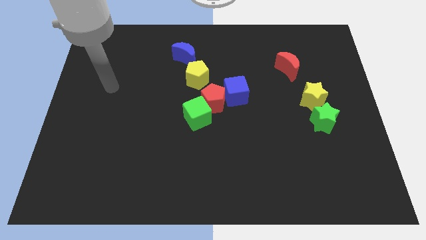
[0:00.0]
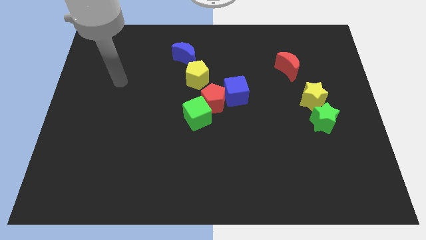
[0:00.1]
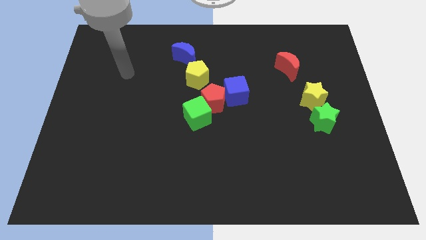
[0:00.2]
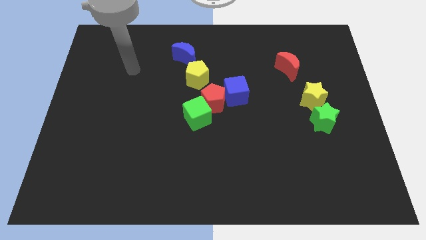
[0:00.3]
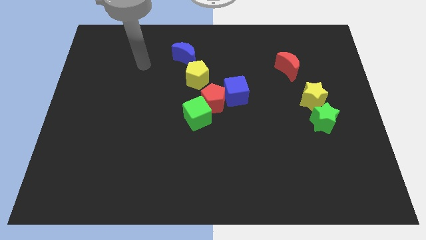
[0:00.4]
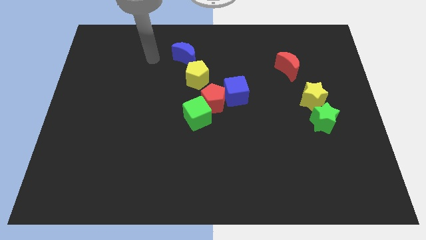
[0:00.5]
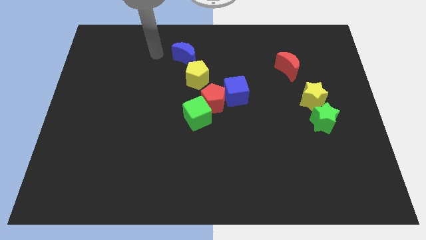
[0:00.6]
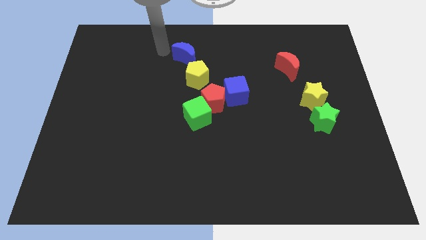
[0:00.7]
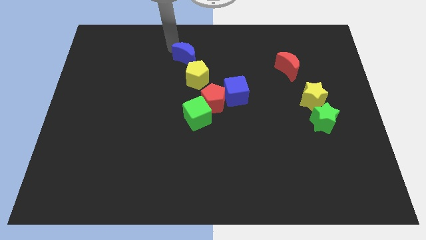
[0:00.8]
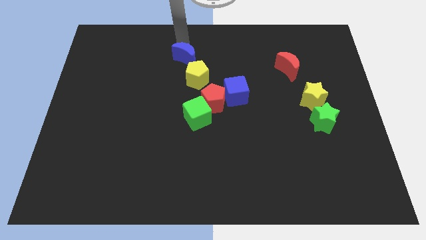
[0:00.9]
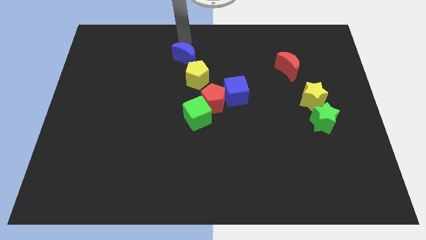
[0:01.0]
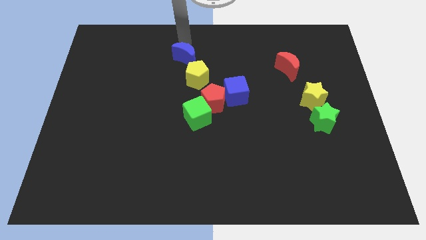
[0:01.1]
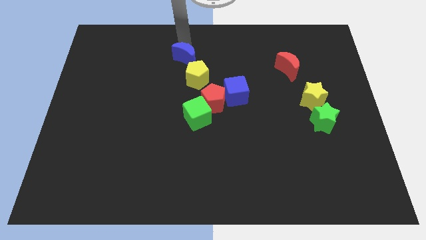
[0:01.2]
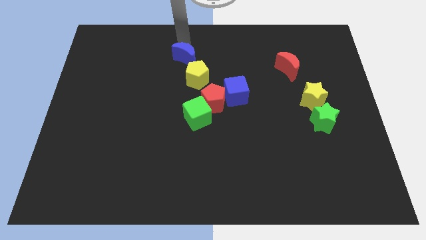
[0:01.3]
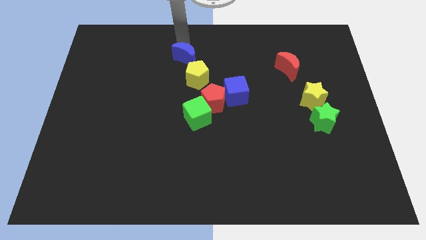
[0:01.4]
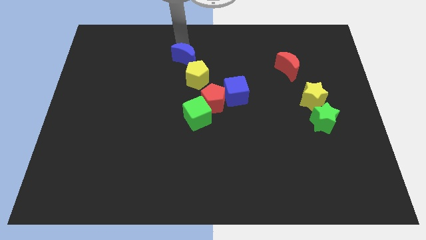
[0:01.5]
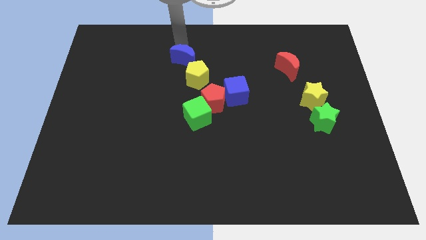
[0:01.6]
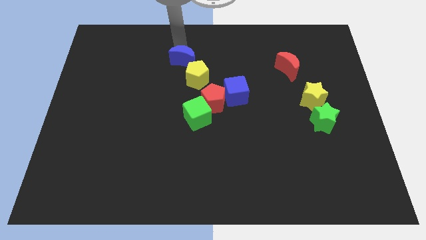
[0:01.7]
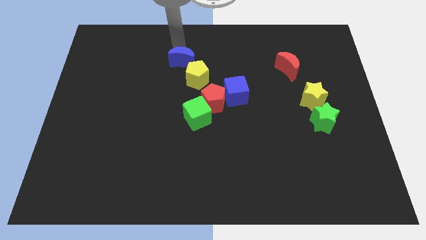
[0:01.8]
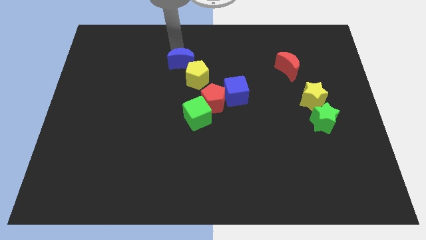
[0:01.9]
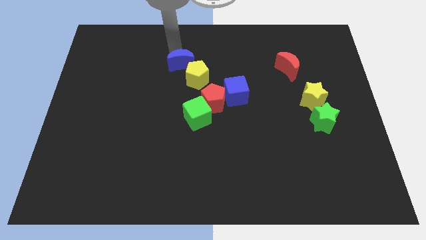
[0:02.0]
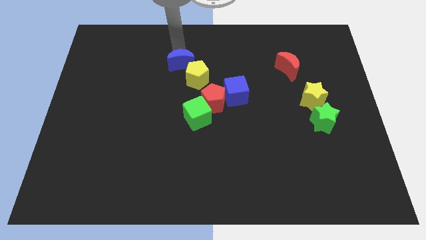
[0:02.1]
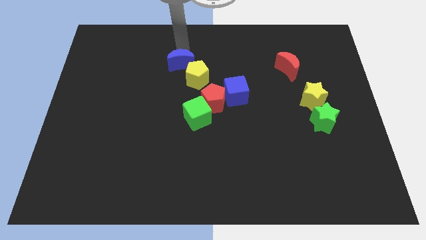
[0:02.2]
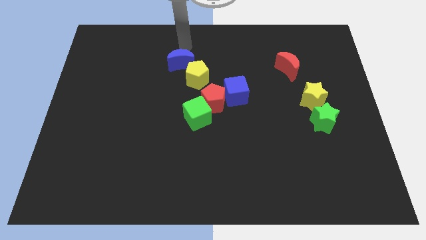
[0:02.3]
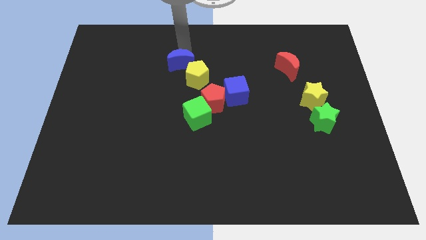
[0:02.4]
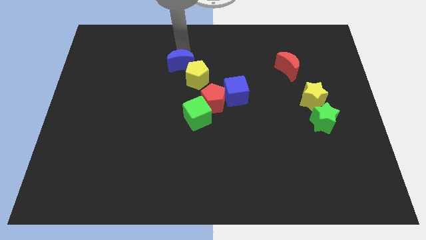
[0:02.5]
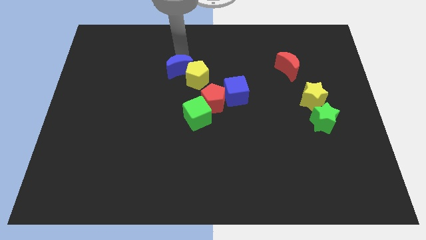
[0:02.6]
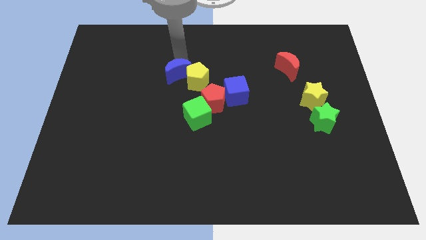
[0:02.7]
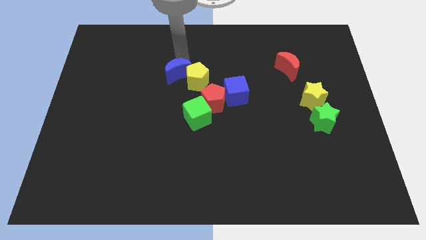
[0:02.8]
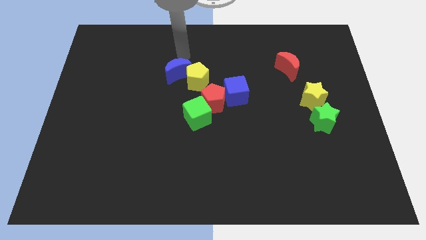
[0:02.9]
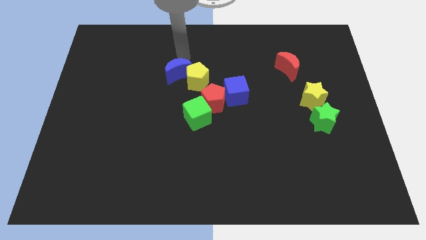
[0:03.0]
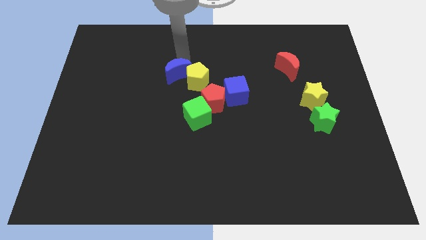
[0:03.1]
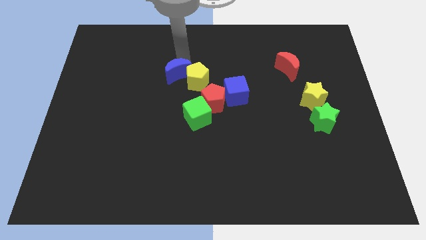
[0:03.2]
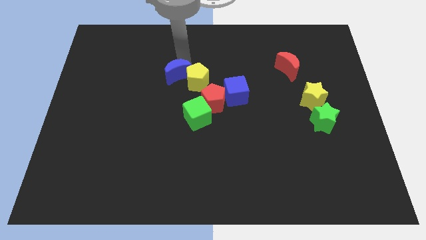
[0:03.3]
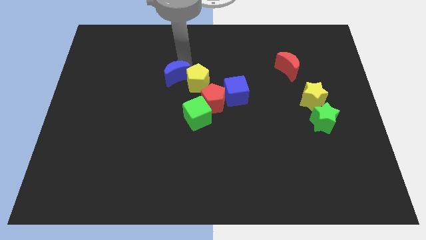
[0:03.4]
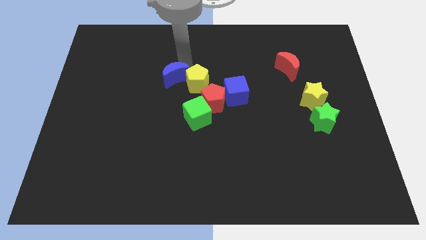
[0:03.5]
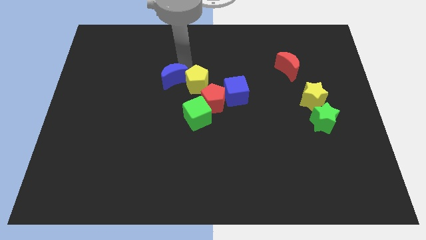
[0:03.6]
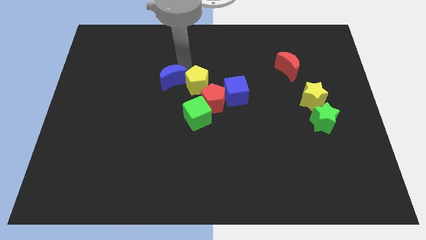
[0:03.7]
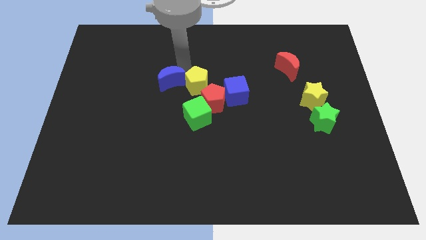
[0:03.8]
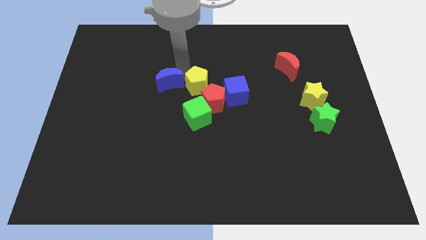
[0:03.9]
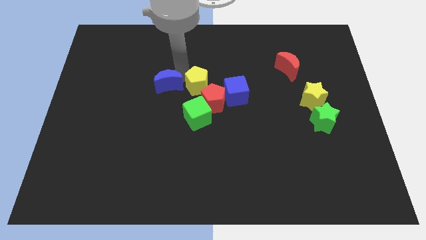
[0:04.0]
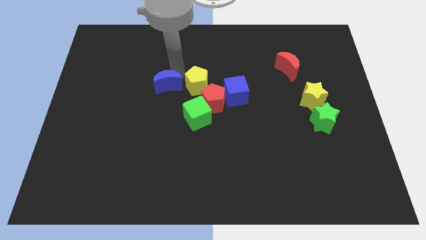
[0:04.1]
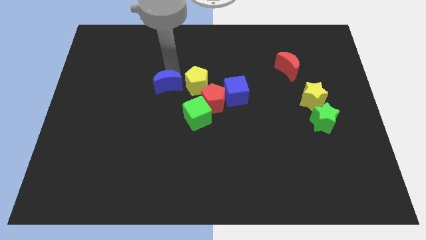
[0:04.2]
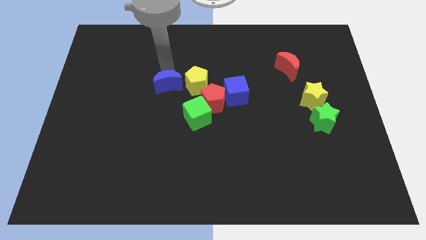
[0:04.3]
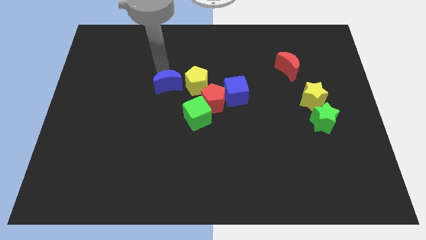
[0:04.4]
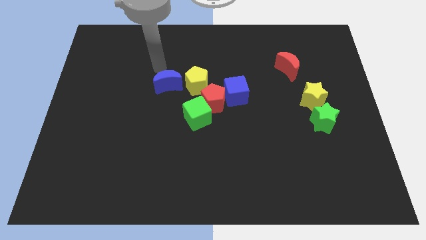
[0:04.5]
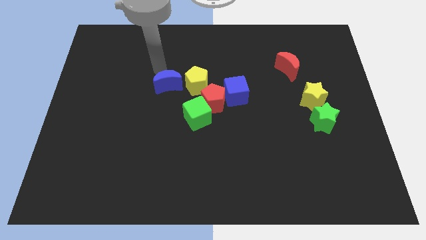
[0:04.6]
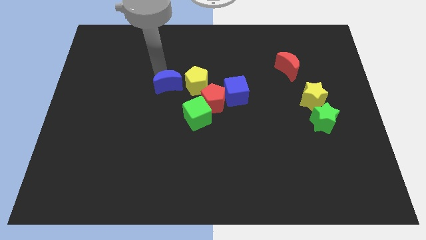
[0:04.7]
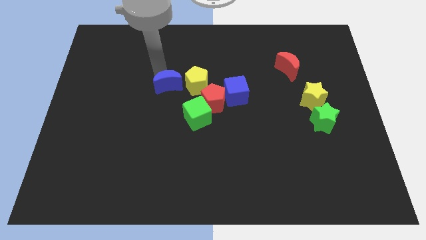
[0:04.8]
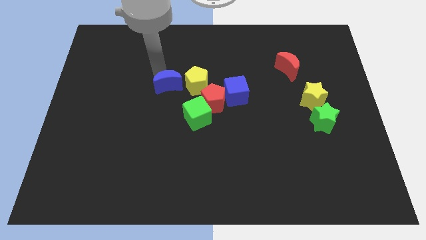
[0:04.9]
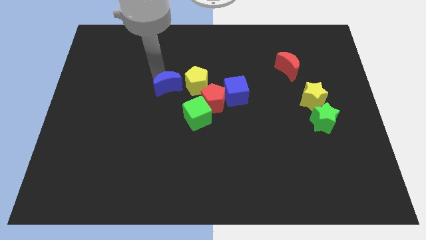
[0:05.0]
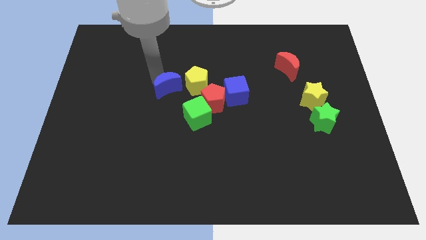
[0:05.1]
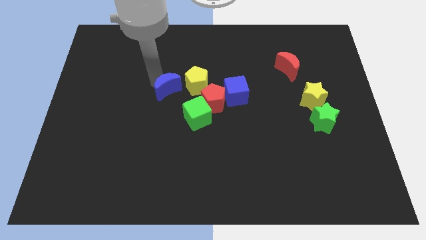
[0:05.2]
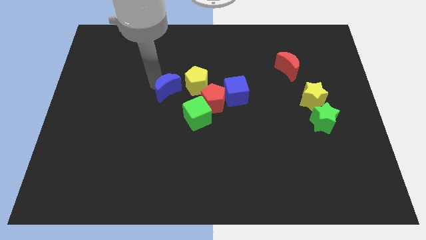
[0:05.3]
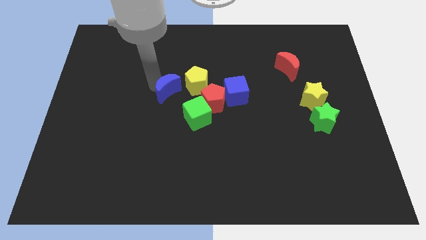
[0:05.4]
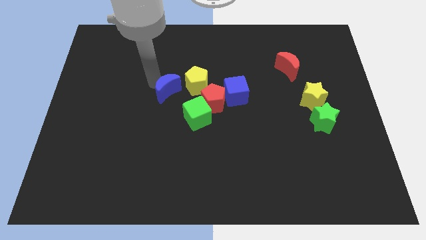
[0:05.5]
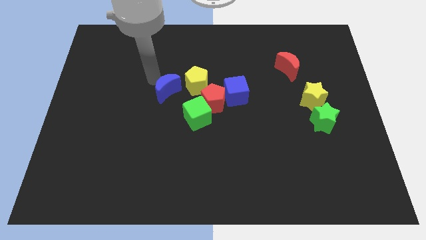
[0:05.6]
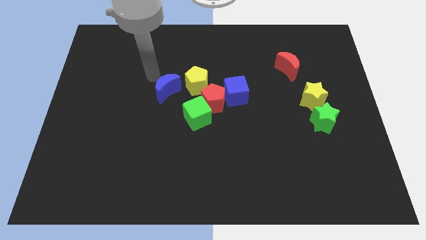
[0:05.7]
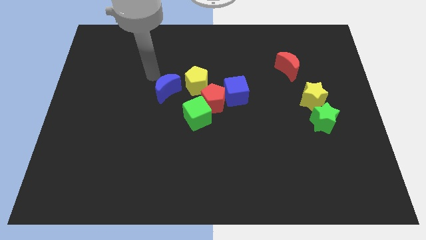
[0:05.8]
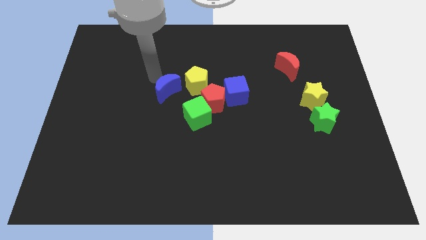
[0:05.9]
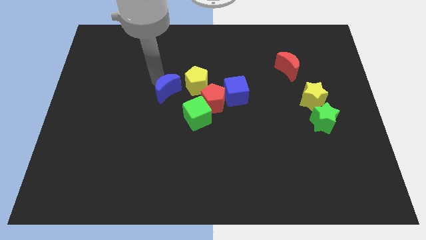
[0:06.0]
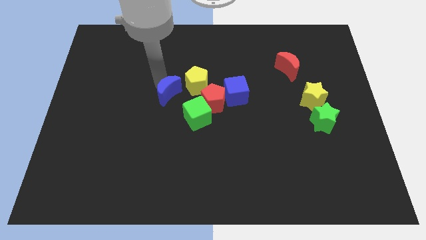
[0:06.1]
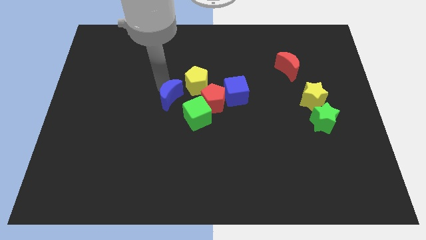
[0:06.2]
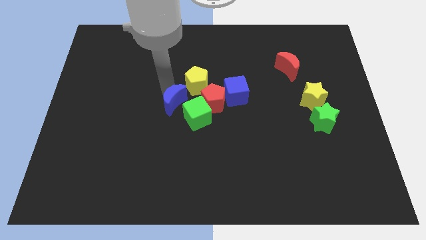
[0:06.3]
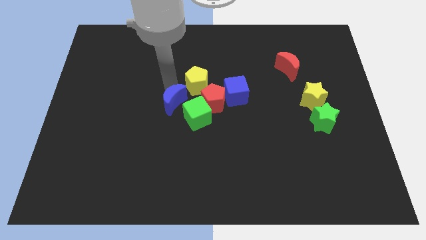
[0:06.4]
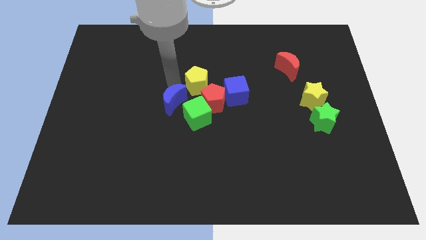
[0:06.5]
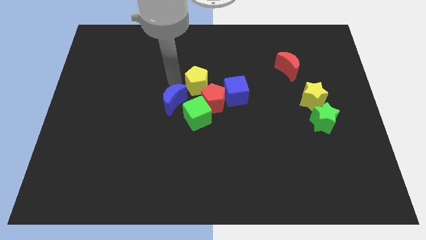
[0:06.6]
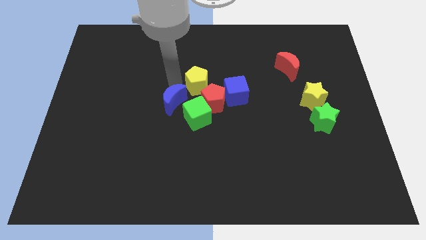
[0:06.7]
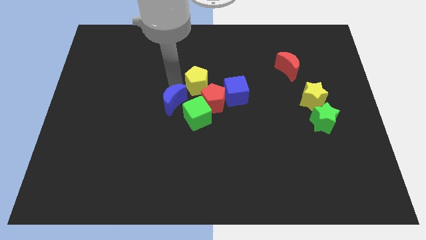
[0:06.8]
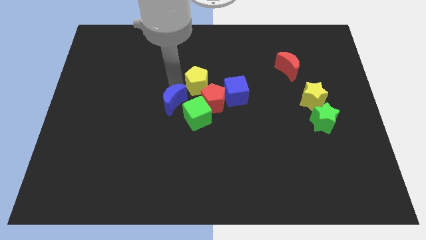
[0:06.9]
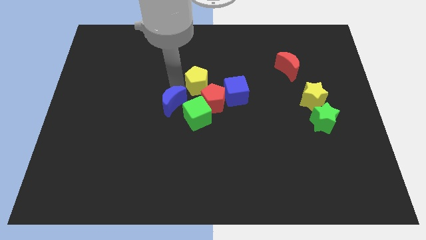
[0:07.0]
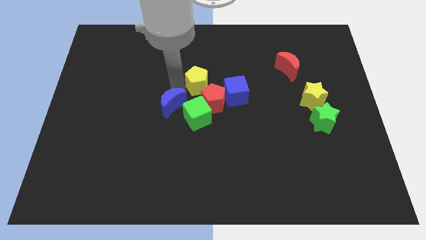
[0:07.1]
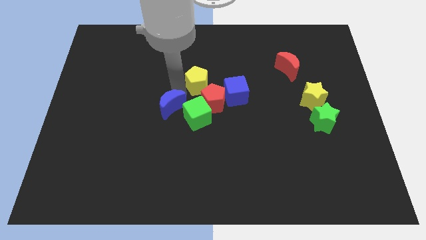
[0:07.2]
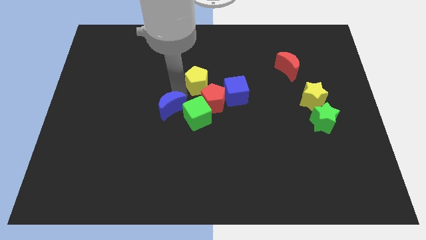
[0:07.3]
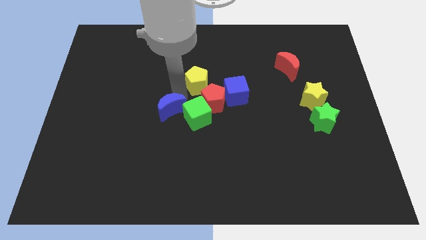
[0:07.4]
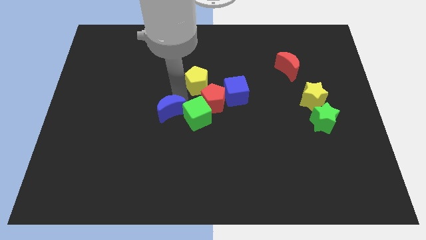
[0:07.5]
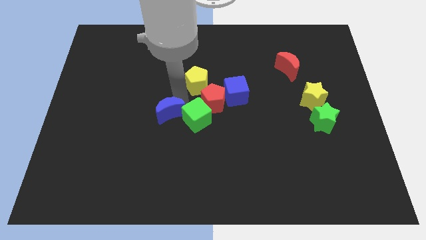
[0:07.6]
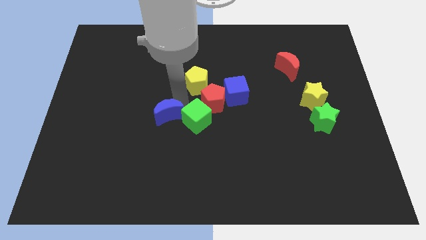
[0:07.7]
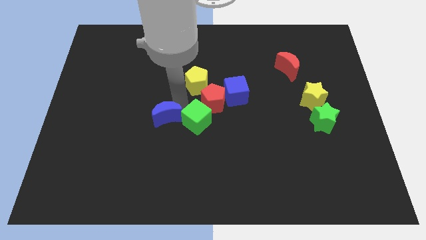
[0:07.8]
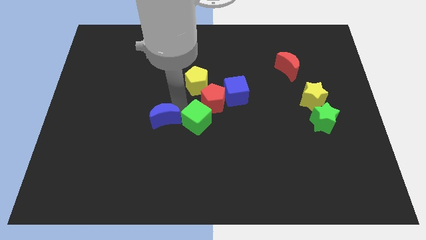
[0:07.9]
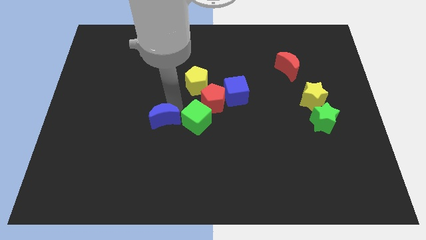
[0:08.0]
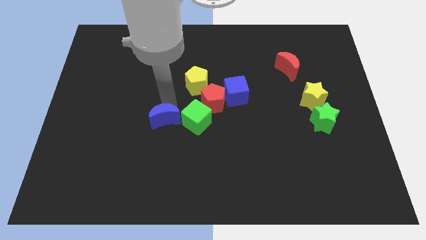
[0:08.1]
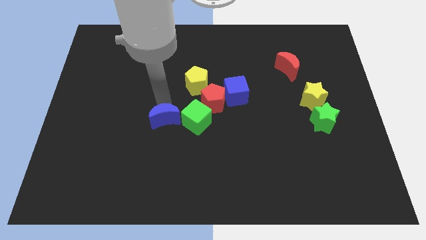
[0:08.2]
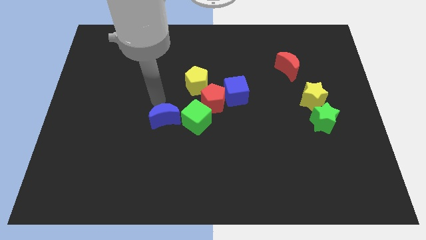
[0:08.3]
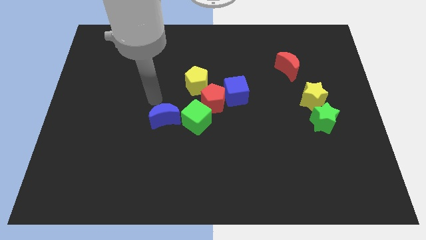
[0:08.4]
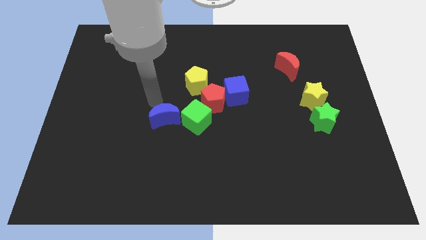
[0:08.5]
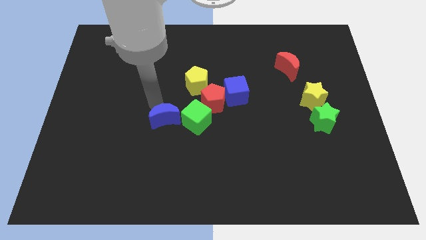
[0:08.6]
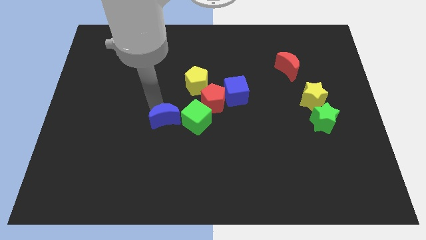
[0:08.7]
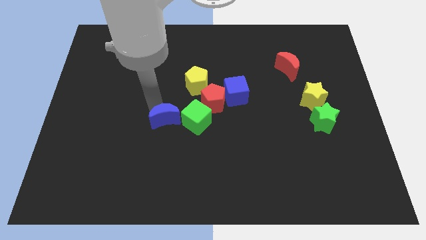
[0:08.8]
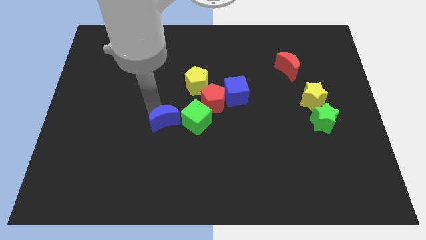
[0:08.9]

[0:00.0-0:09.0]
move the blue moon down
